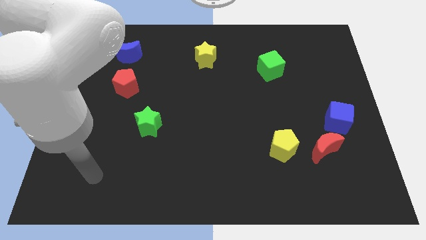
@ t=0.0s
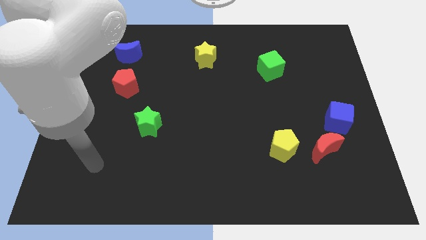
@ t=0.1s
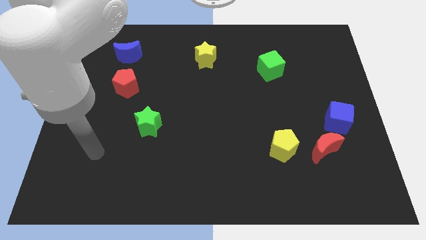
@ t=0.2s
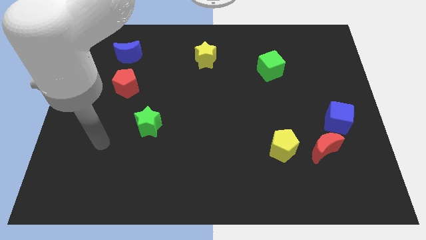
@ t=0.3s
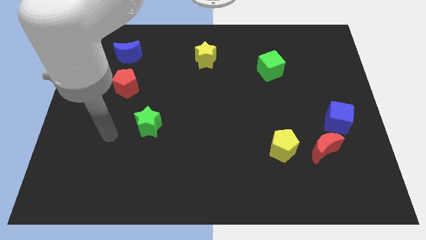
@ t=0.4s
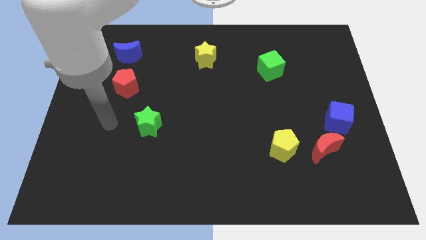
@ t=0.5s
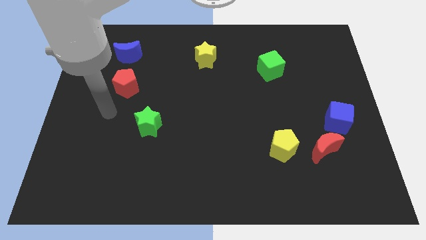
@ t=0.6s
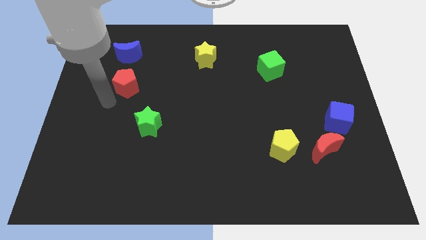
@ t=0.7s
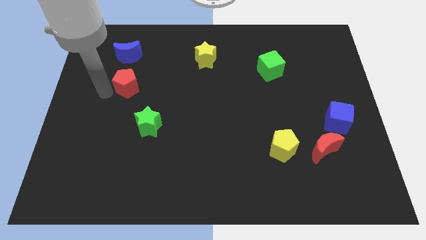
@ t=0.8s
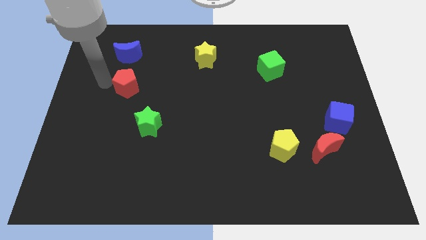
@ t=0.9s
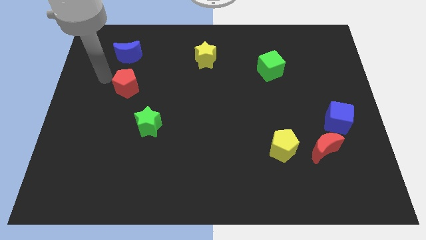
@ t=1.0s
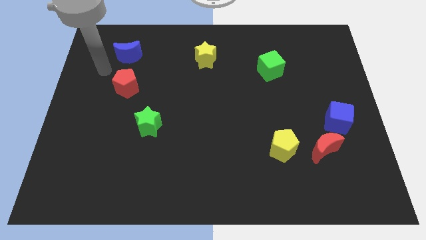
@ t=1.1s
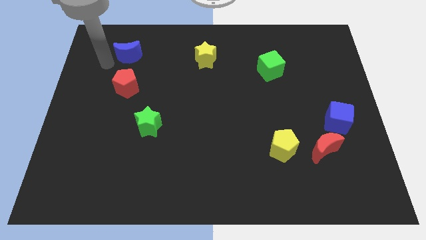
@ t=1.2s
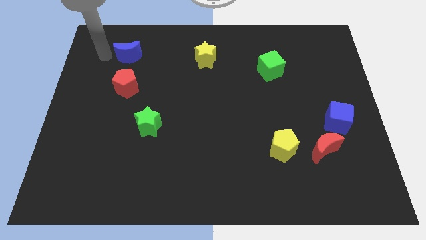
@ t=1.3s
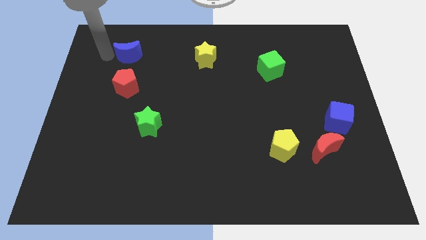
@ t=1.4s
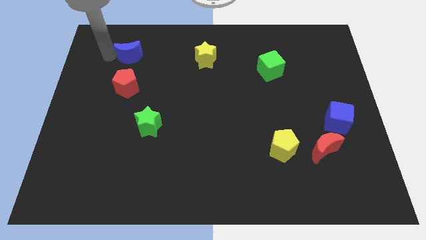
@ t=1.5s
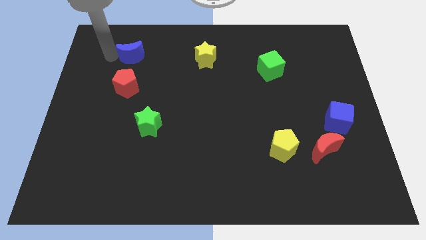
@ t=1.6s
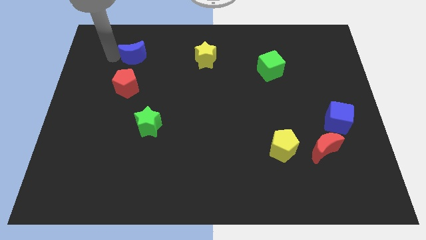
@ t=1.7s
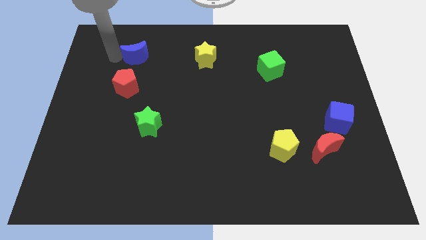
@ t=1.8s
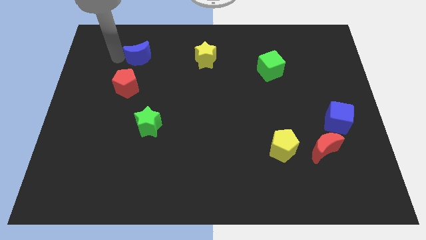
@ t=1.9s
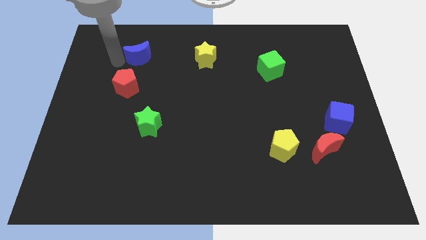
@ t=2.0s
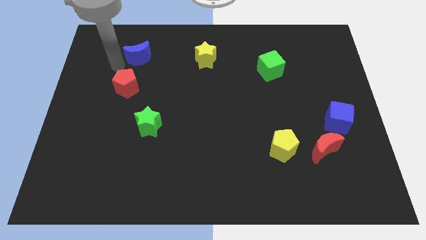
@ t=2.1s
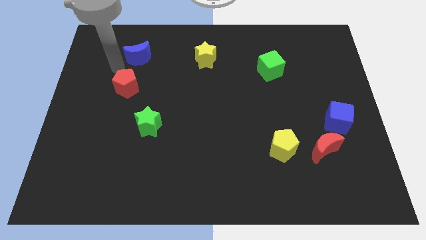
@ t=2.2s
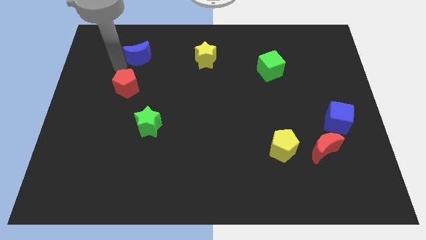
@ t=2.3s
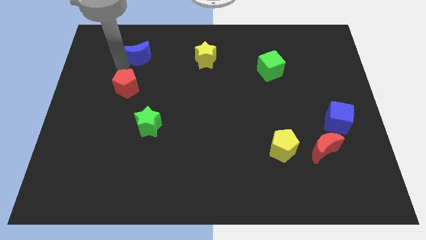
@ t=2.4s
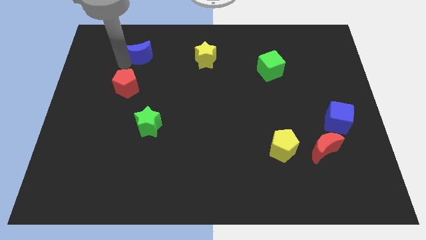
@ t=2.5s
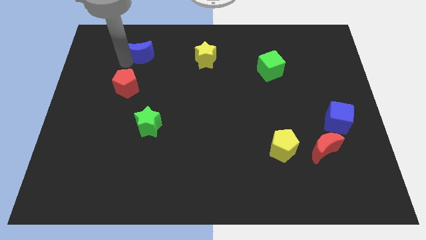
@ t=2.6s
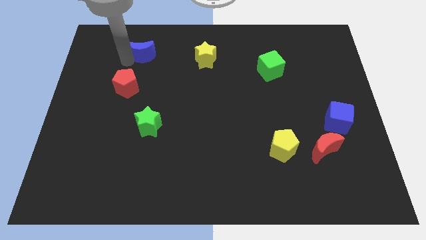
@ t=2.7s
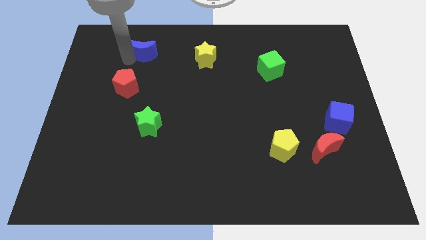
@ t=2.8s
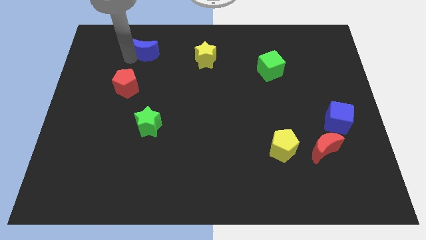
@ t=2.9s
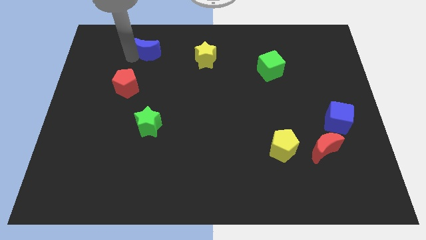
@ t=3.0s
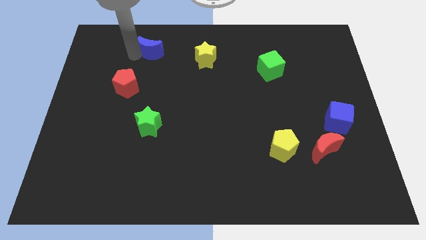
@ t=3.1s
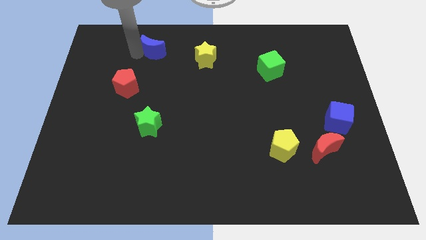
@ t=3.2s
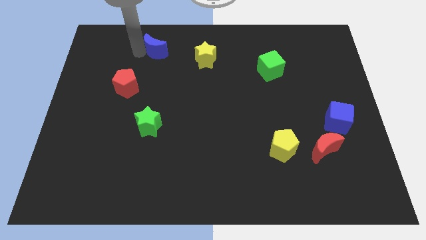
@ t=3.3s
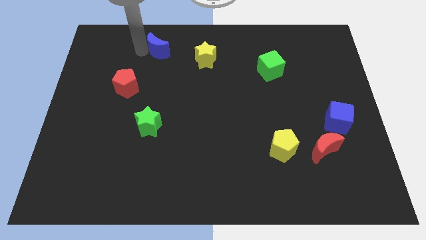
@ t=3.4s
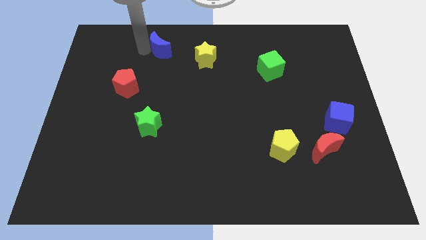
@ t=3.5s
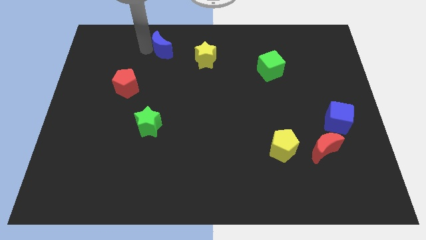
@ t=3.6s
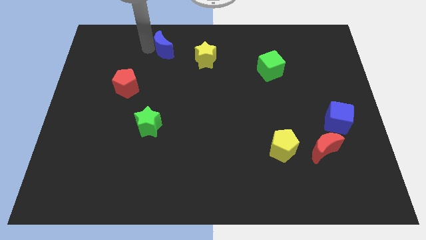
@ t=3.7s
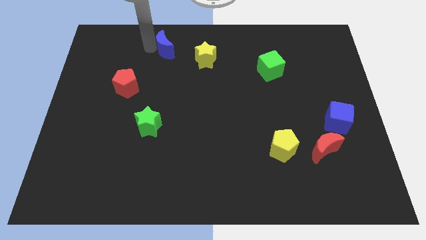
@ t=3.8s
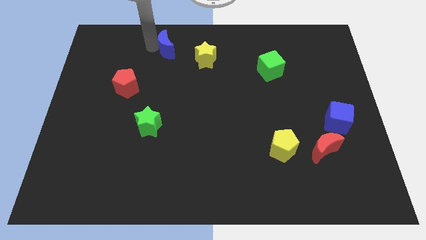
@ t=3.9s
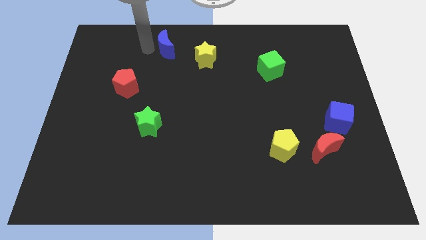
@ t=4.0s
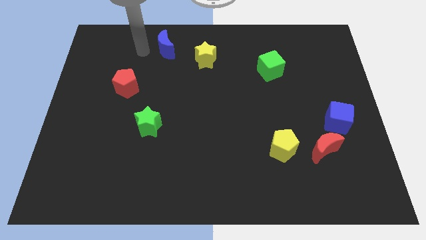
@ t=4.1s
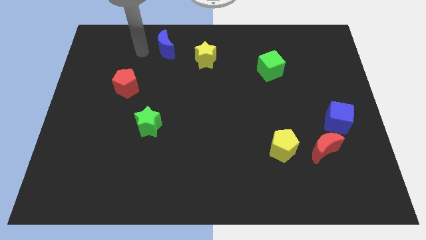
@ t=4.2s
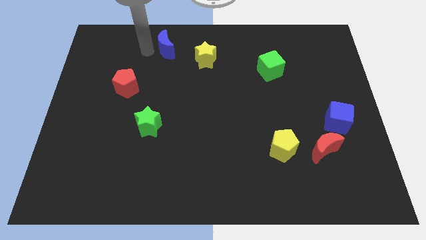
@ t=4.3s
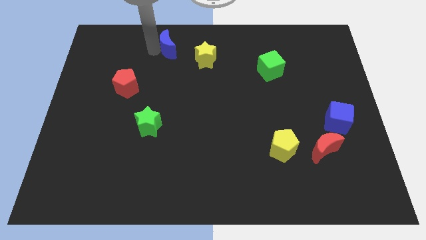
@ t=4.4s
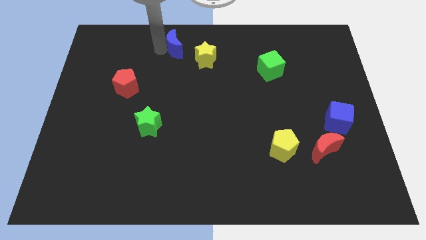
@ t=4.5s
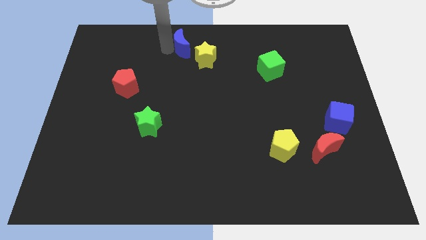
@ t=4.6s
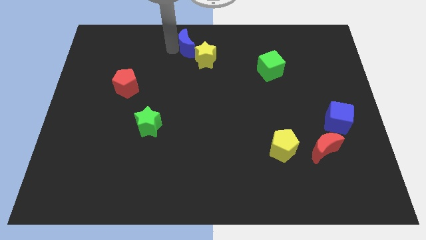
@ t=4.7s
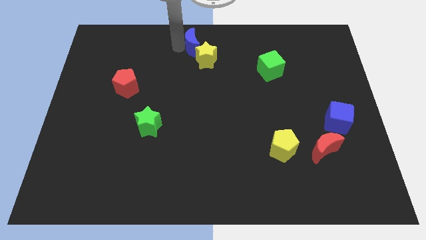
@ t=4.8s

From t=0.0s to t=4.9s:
move the blue moon close to the yellow star

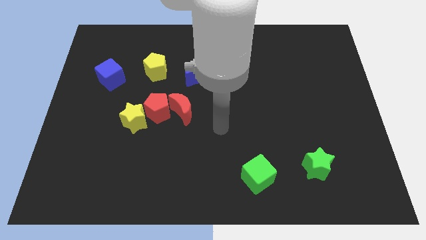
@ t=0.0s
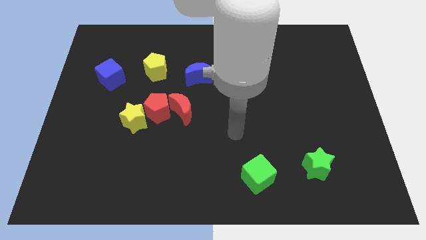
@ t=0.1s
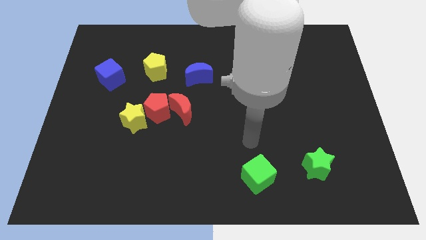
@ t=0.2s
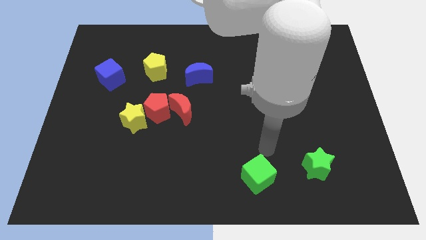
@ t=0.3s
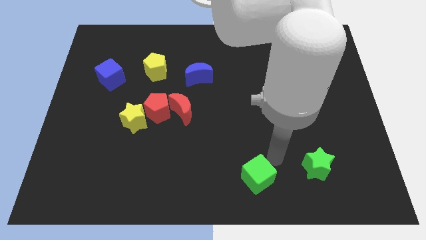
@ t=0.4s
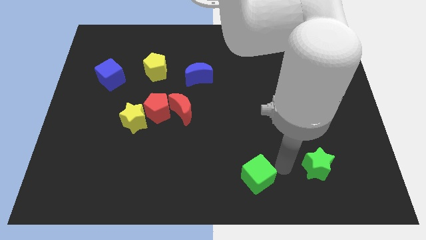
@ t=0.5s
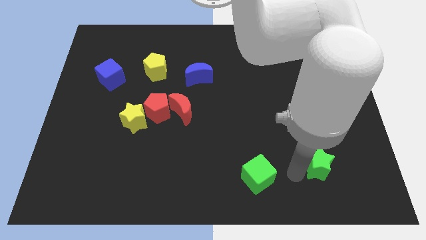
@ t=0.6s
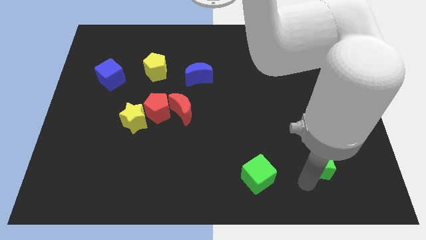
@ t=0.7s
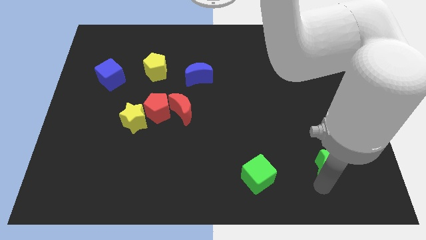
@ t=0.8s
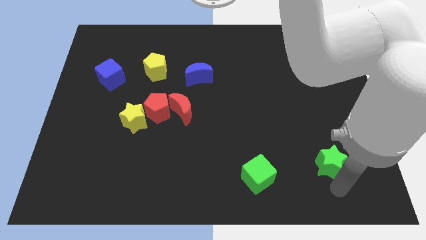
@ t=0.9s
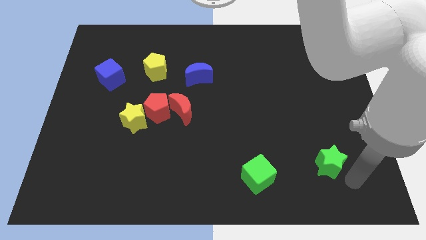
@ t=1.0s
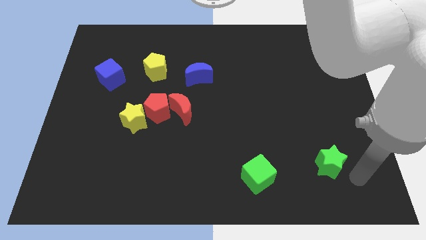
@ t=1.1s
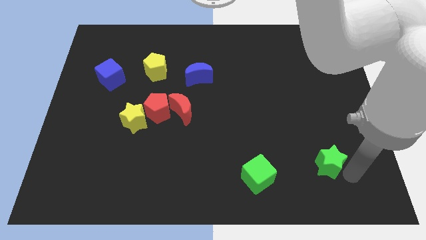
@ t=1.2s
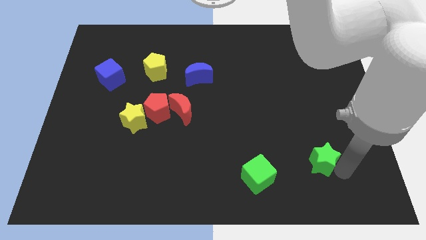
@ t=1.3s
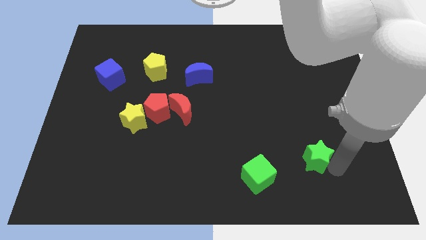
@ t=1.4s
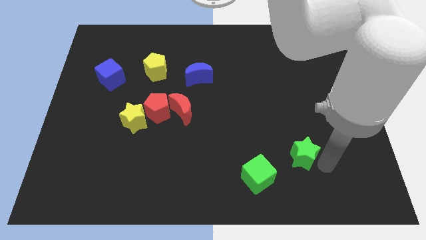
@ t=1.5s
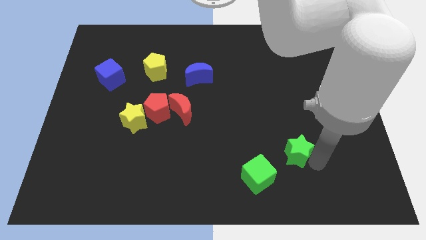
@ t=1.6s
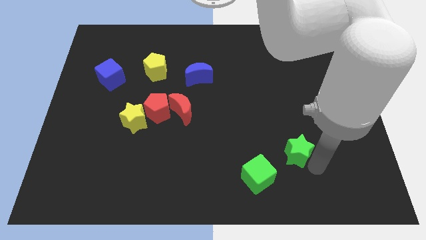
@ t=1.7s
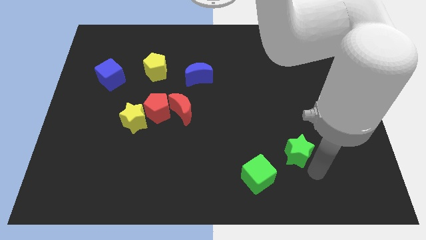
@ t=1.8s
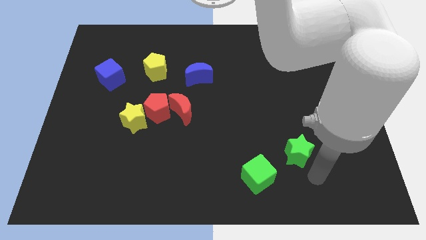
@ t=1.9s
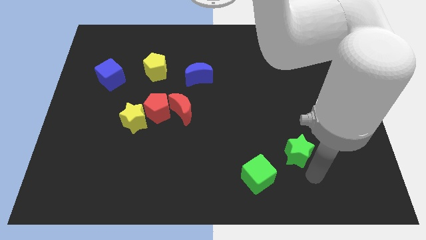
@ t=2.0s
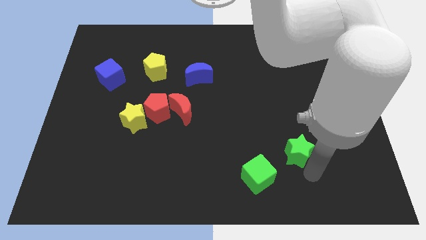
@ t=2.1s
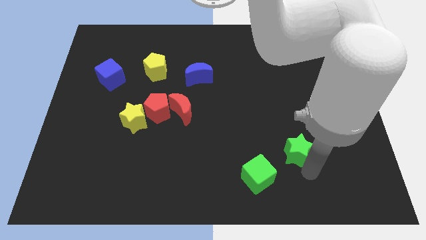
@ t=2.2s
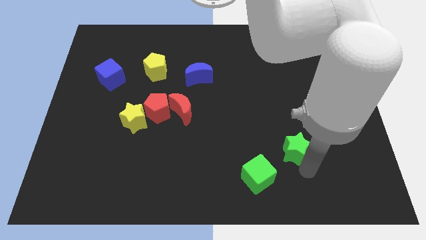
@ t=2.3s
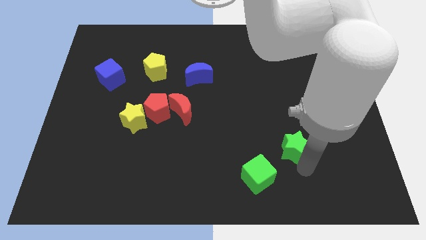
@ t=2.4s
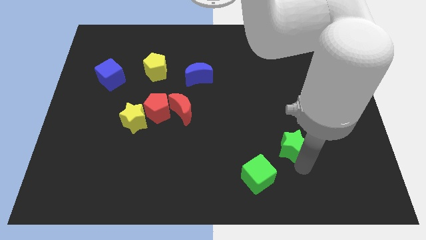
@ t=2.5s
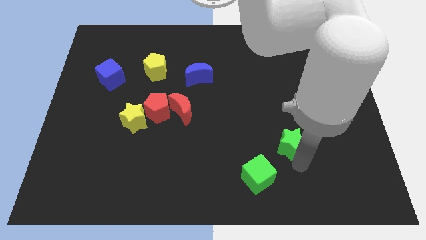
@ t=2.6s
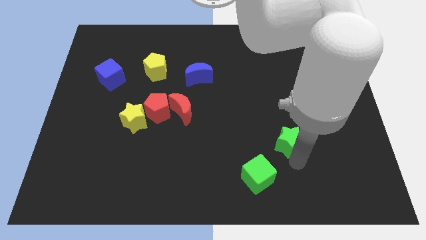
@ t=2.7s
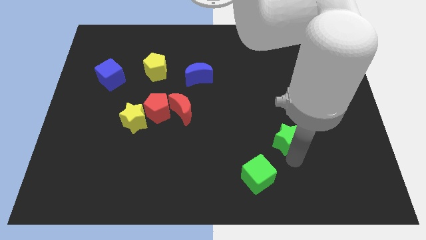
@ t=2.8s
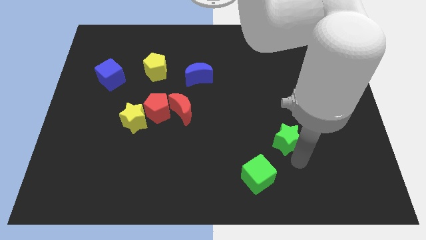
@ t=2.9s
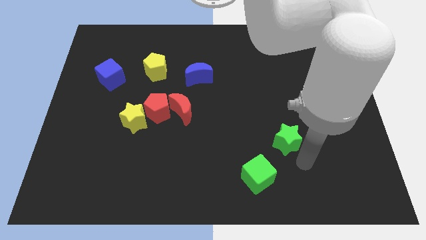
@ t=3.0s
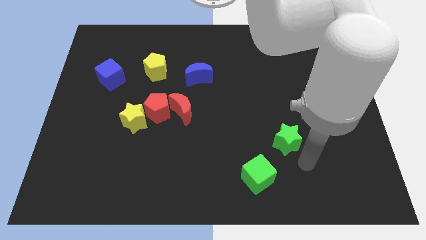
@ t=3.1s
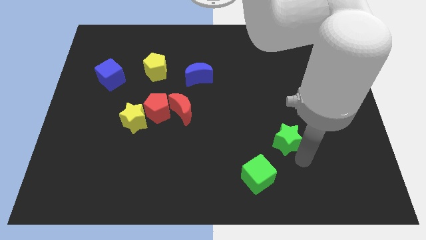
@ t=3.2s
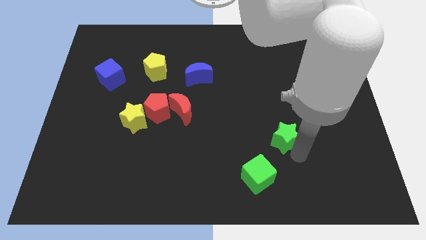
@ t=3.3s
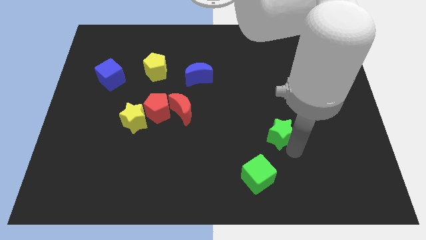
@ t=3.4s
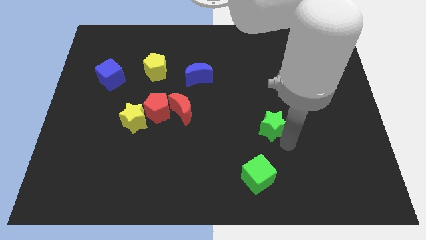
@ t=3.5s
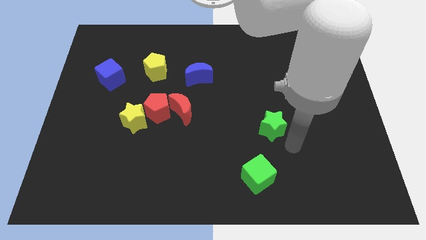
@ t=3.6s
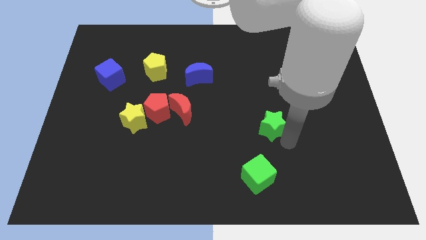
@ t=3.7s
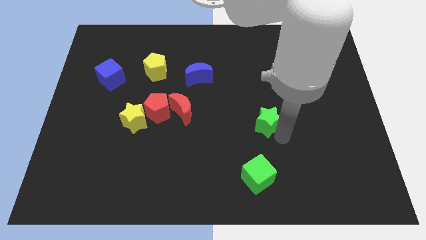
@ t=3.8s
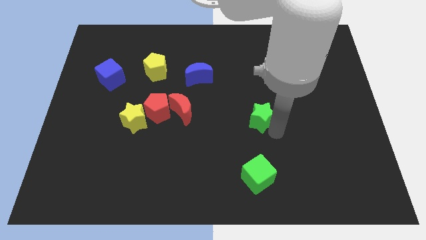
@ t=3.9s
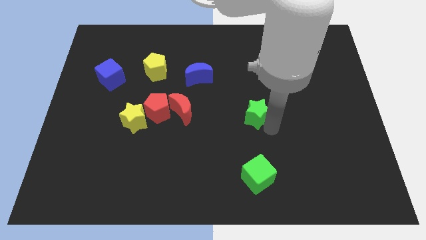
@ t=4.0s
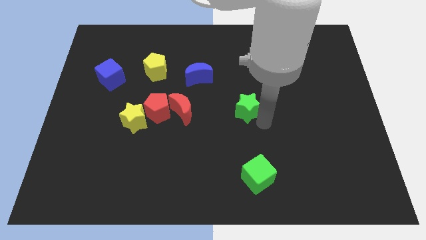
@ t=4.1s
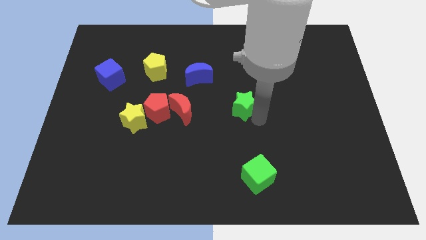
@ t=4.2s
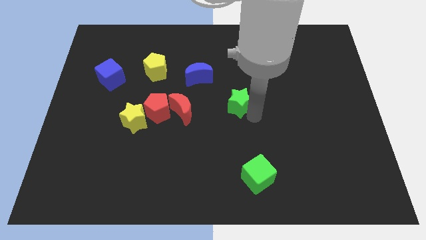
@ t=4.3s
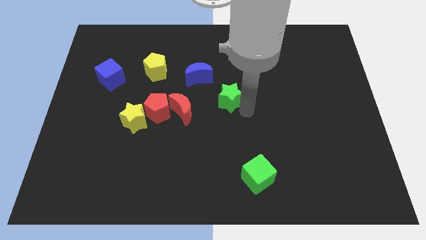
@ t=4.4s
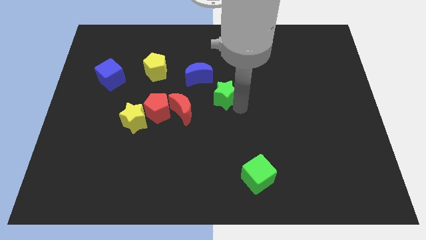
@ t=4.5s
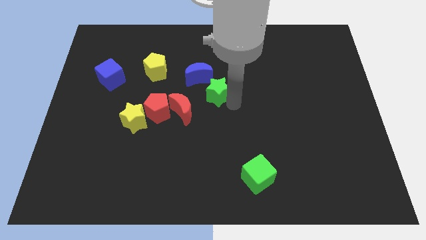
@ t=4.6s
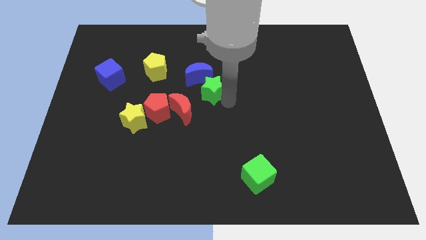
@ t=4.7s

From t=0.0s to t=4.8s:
put the green star towards the blue moon
